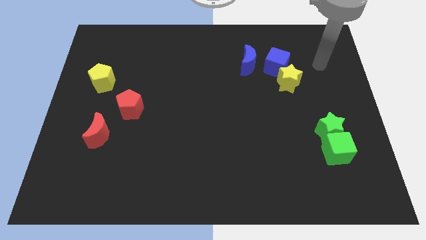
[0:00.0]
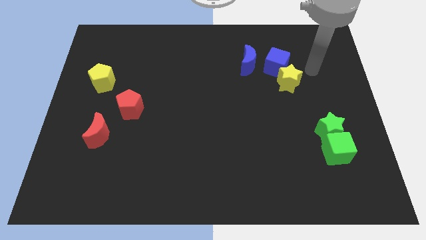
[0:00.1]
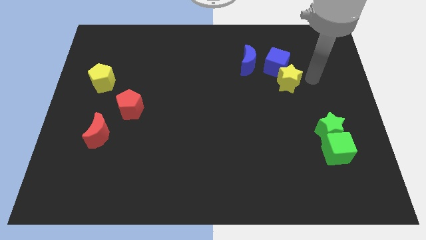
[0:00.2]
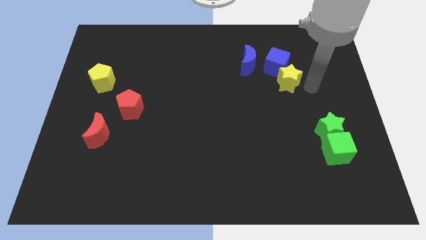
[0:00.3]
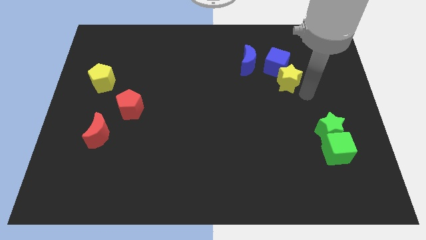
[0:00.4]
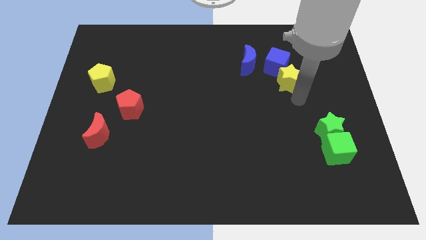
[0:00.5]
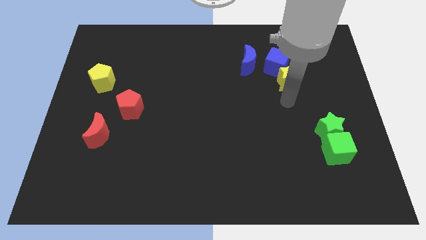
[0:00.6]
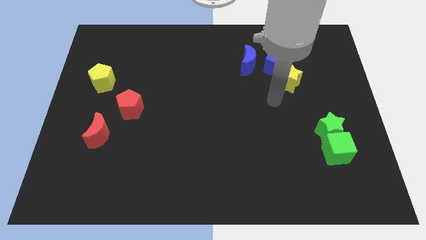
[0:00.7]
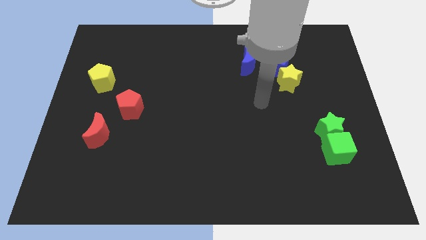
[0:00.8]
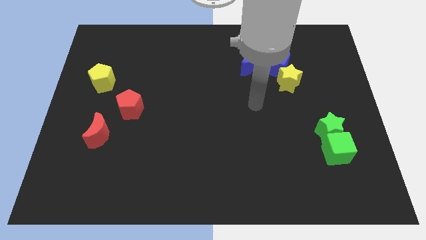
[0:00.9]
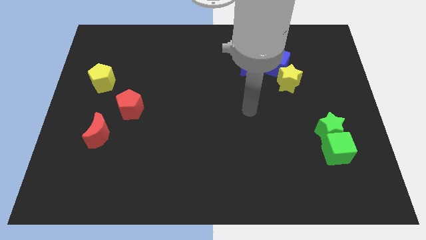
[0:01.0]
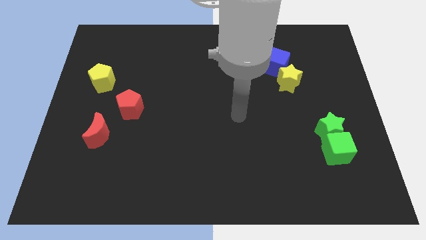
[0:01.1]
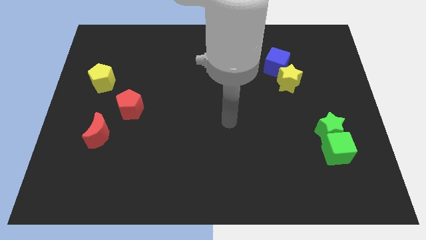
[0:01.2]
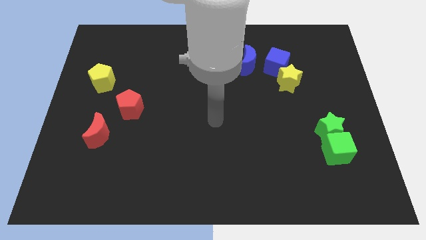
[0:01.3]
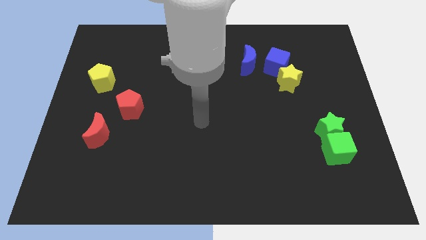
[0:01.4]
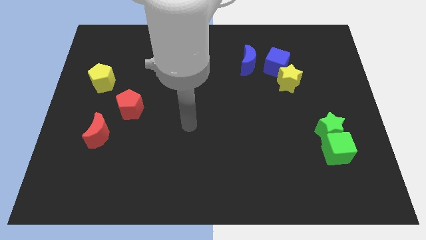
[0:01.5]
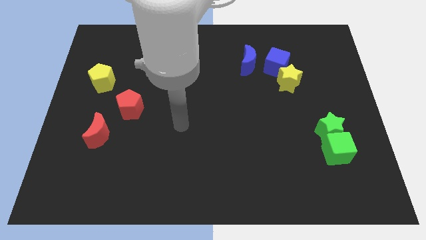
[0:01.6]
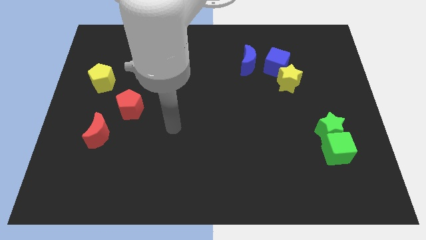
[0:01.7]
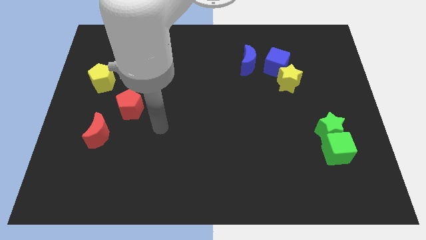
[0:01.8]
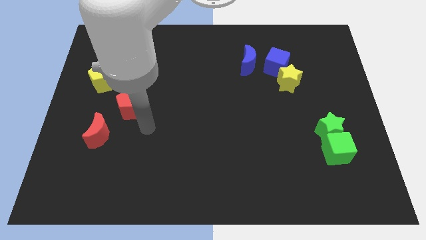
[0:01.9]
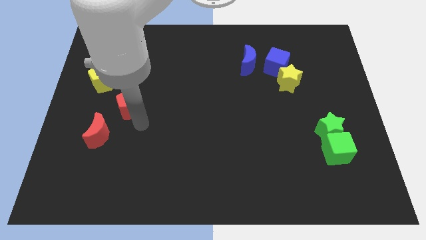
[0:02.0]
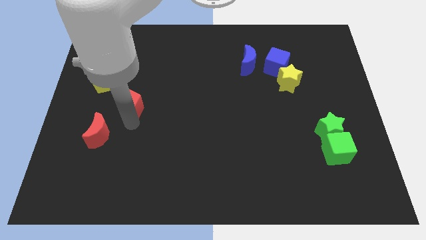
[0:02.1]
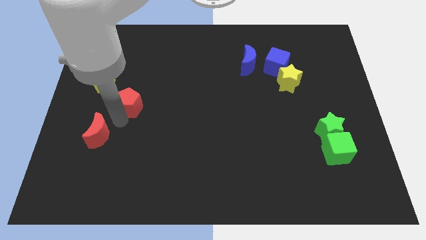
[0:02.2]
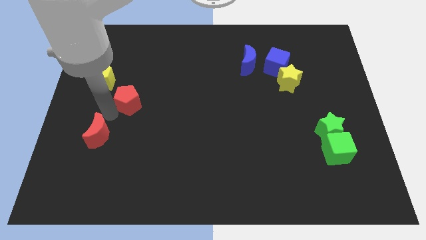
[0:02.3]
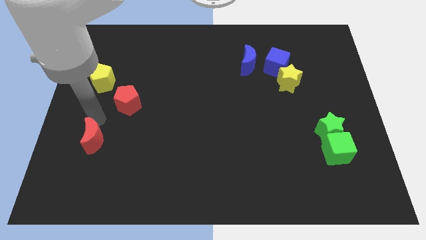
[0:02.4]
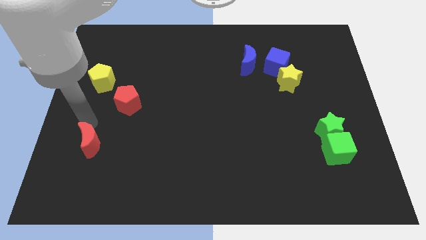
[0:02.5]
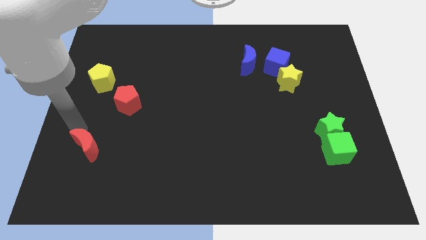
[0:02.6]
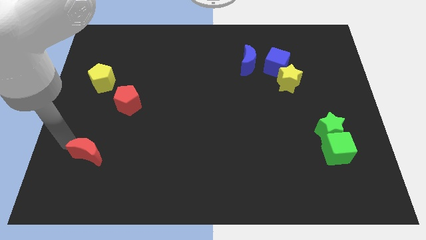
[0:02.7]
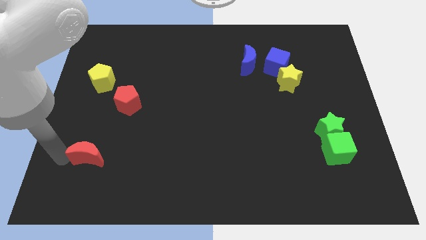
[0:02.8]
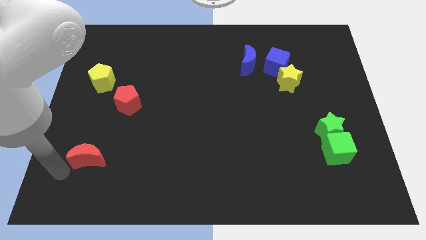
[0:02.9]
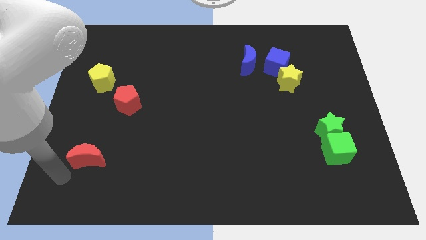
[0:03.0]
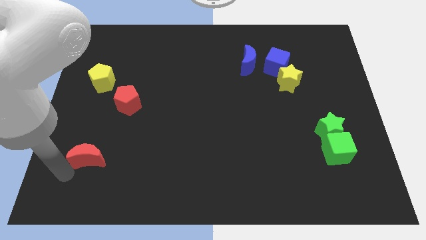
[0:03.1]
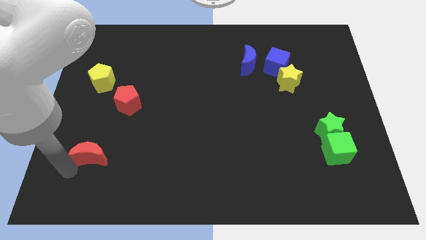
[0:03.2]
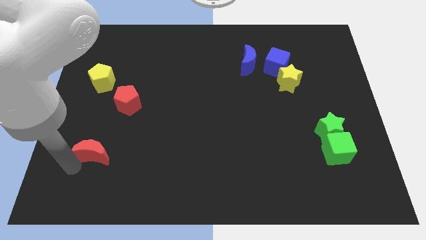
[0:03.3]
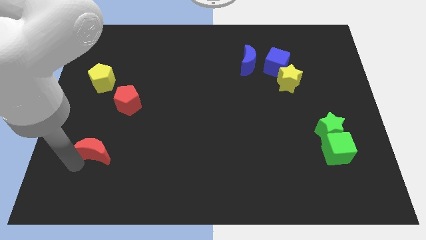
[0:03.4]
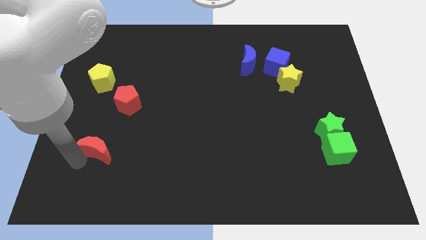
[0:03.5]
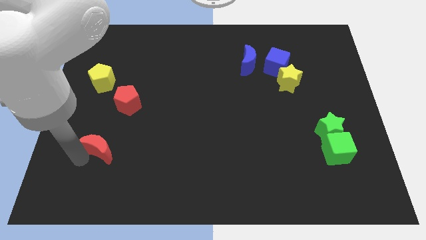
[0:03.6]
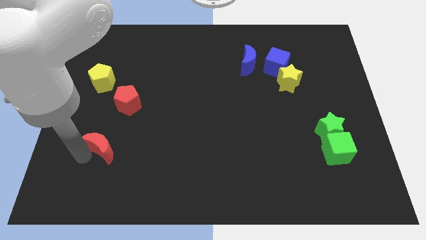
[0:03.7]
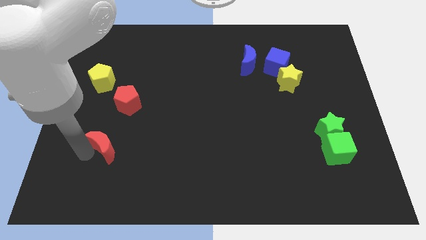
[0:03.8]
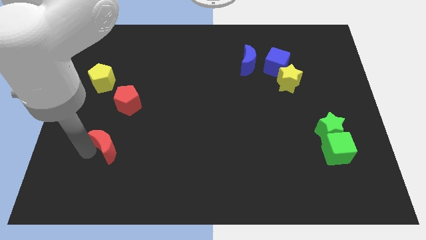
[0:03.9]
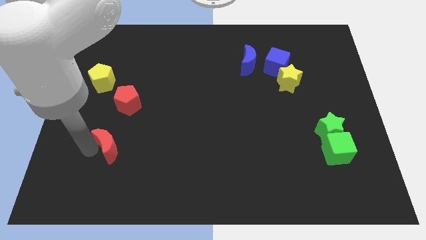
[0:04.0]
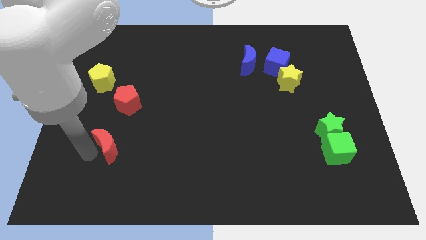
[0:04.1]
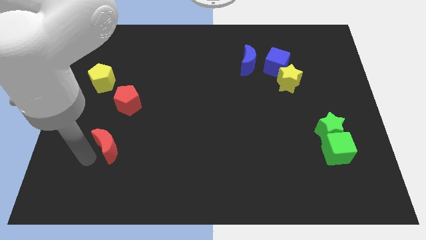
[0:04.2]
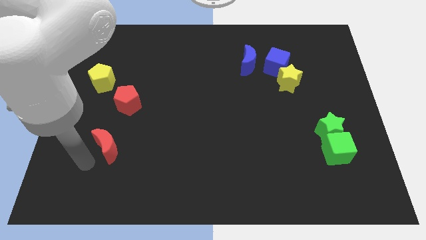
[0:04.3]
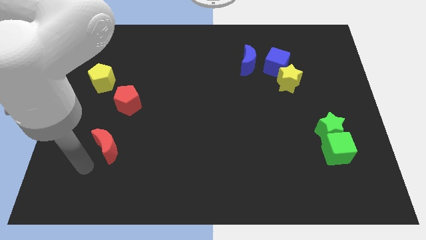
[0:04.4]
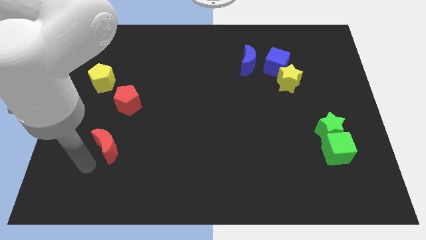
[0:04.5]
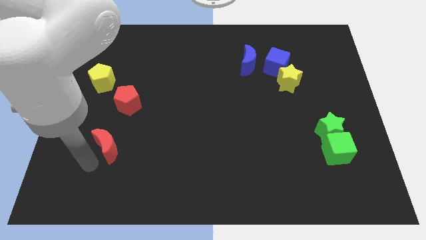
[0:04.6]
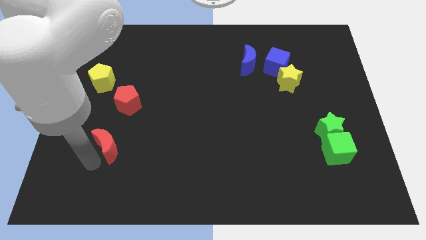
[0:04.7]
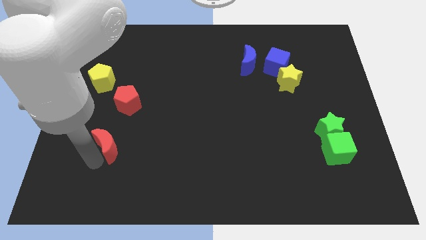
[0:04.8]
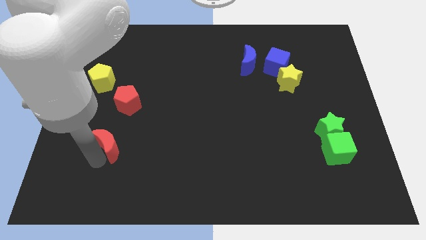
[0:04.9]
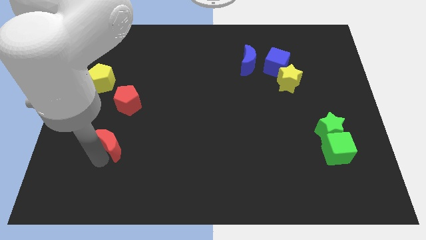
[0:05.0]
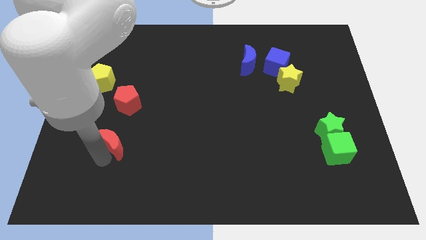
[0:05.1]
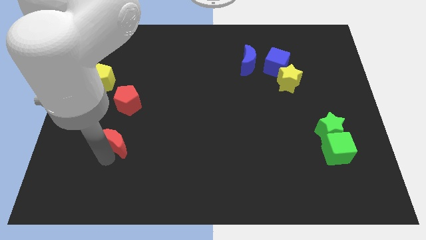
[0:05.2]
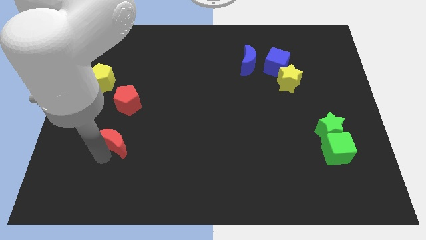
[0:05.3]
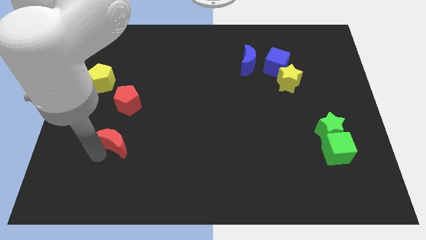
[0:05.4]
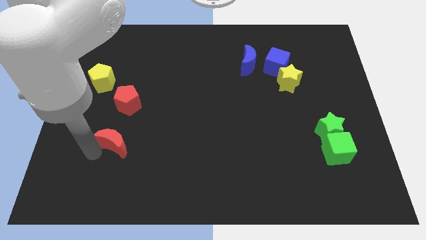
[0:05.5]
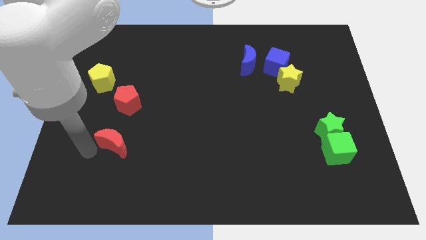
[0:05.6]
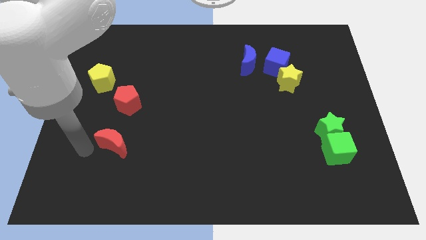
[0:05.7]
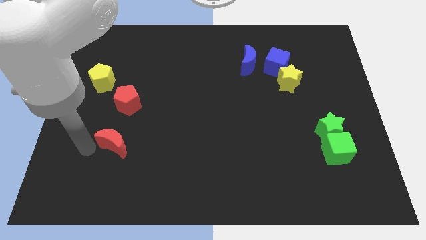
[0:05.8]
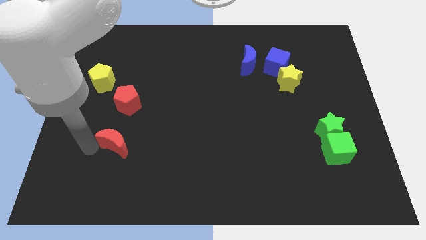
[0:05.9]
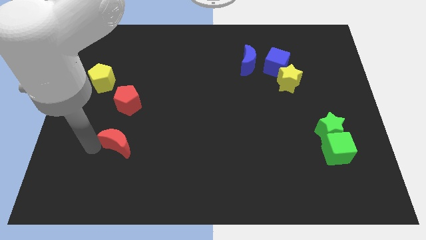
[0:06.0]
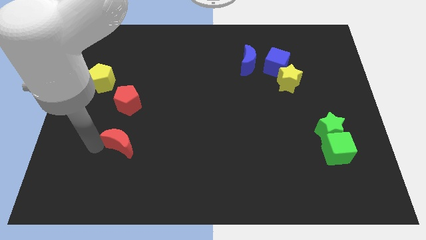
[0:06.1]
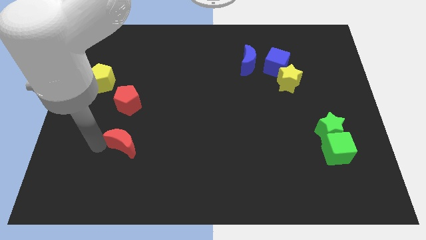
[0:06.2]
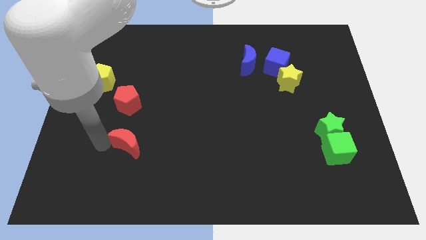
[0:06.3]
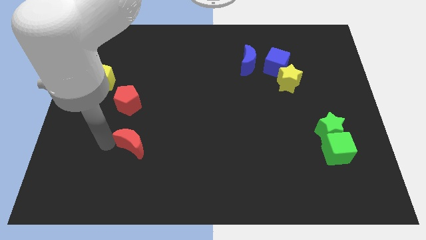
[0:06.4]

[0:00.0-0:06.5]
slightly push the red moon to the right

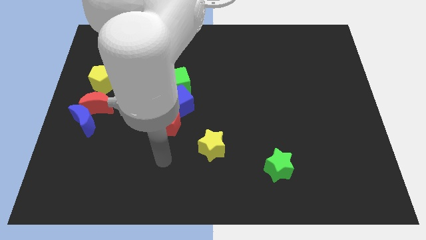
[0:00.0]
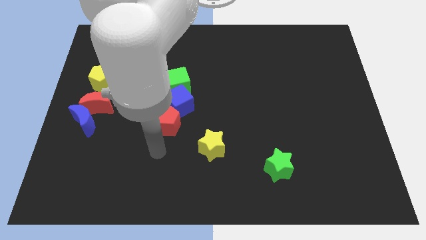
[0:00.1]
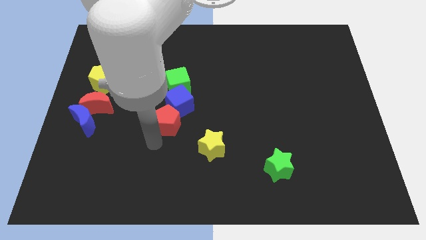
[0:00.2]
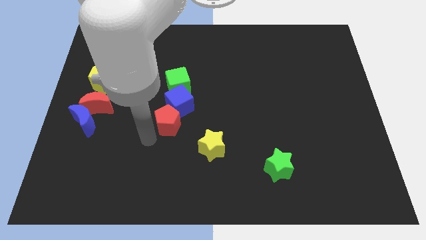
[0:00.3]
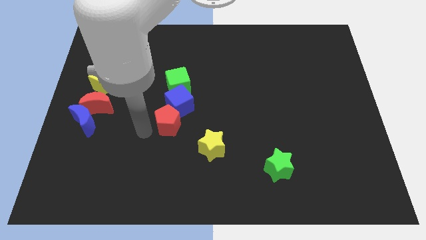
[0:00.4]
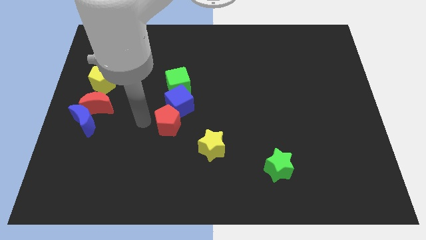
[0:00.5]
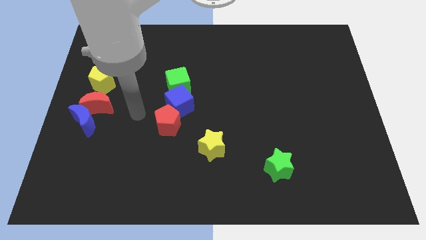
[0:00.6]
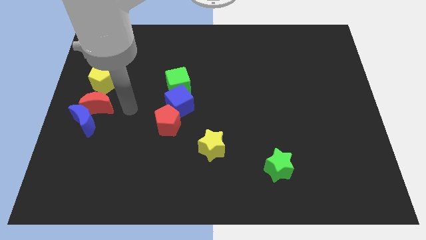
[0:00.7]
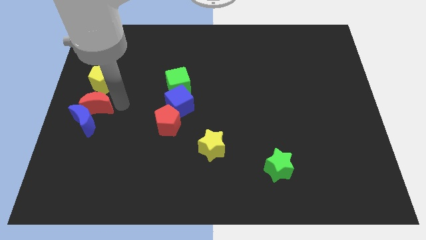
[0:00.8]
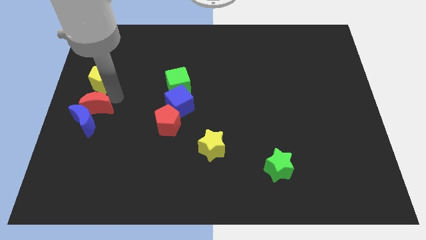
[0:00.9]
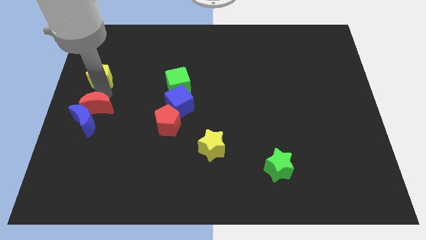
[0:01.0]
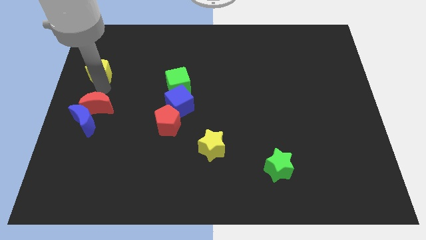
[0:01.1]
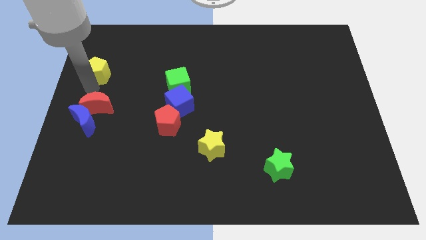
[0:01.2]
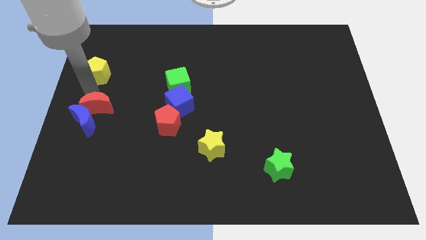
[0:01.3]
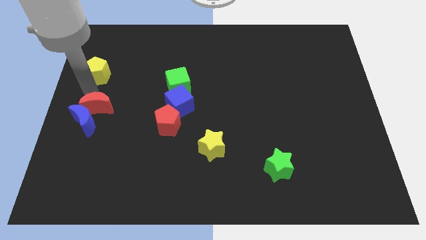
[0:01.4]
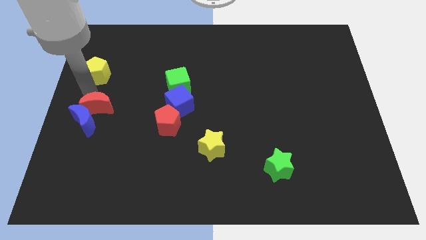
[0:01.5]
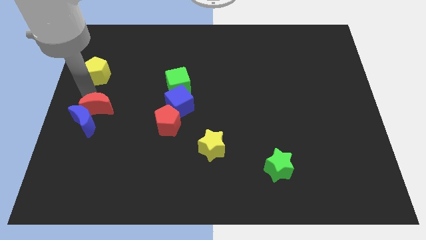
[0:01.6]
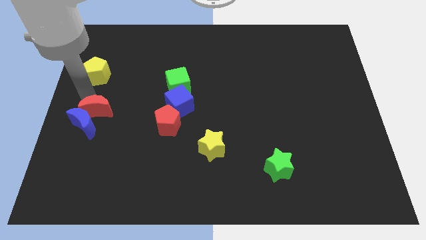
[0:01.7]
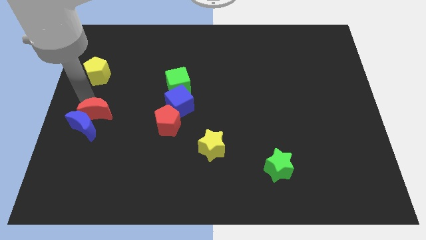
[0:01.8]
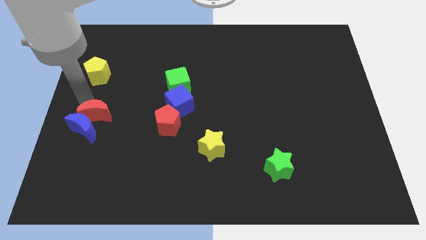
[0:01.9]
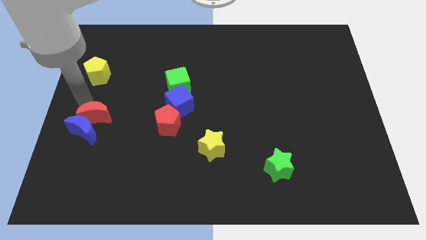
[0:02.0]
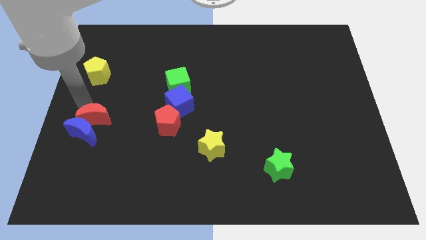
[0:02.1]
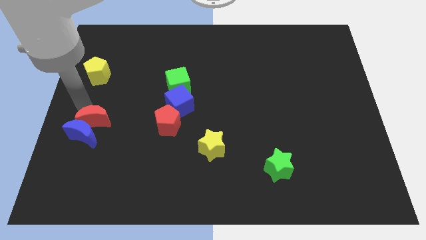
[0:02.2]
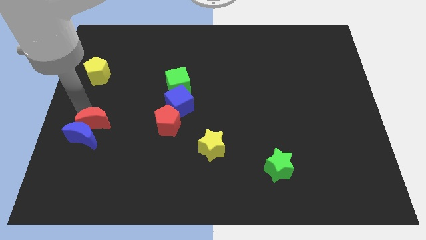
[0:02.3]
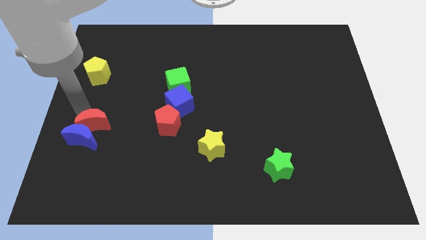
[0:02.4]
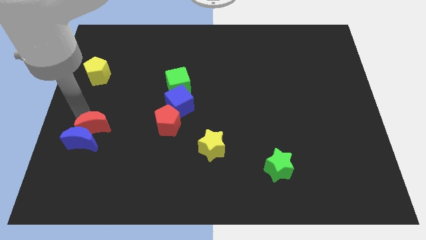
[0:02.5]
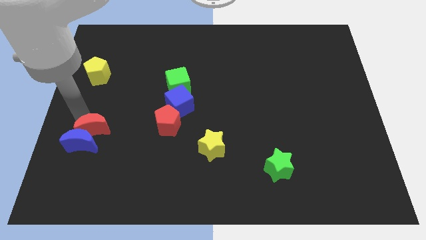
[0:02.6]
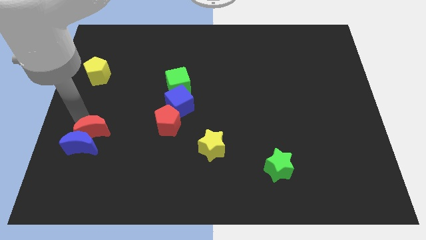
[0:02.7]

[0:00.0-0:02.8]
push the red moon downwards a bit
